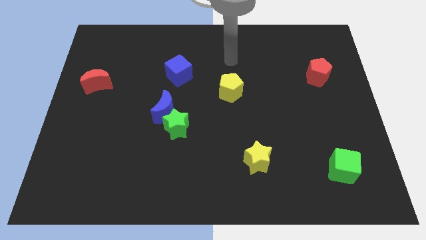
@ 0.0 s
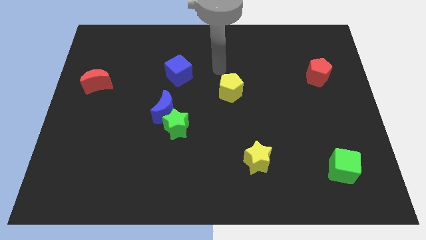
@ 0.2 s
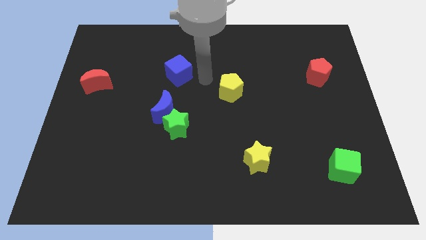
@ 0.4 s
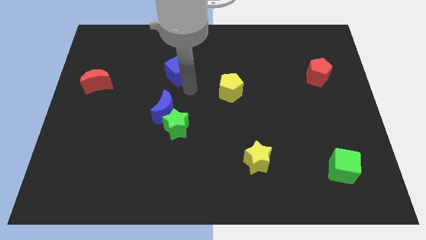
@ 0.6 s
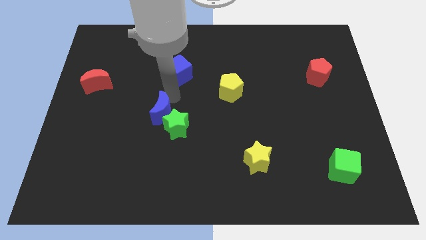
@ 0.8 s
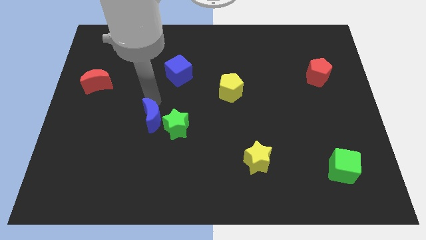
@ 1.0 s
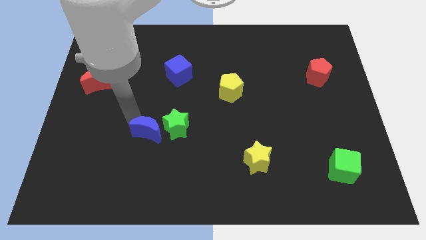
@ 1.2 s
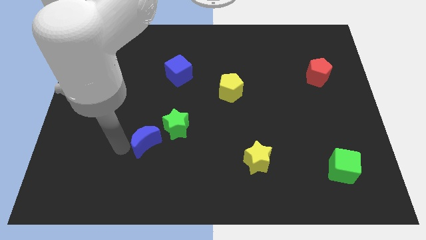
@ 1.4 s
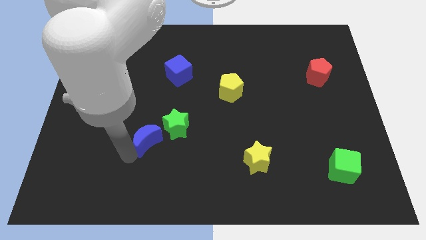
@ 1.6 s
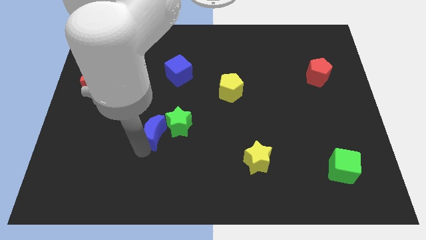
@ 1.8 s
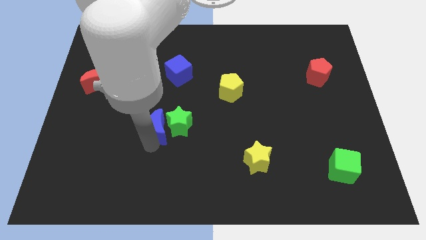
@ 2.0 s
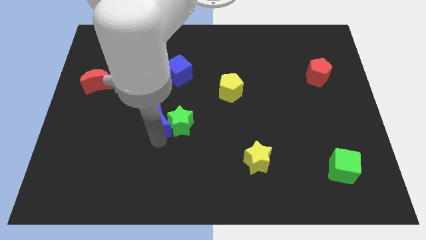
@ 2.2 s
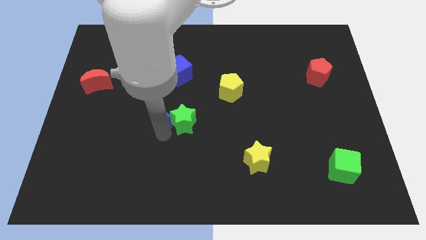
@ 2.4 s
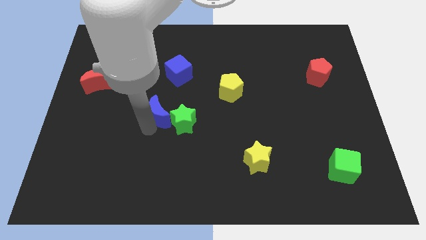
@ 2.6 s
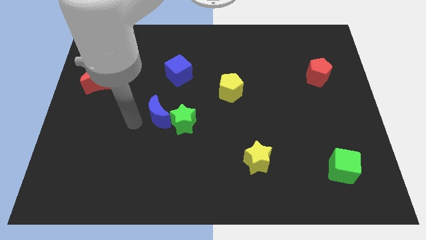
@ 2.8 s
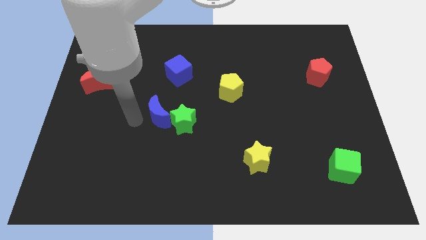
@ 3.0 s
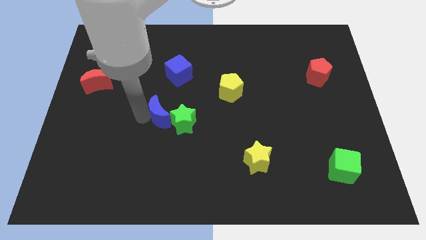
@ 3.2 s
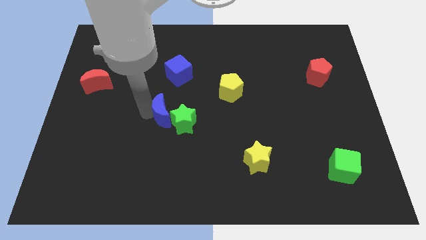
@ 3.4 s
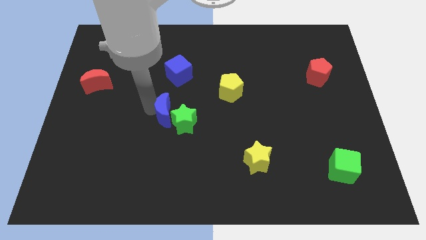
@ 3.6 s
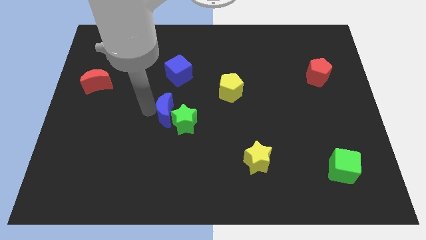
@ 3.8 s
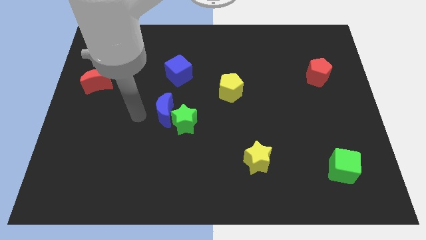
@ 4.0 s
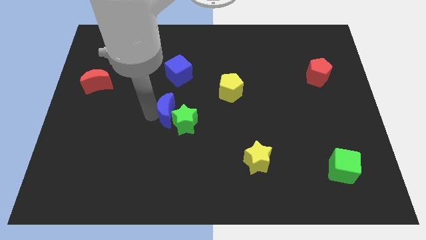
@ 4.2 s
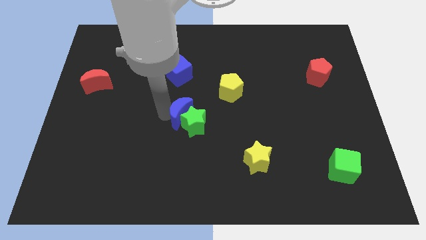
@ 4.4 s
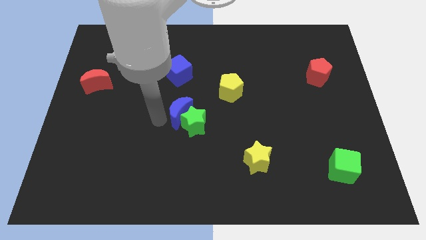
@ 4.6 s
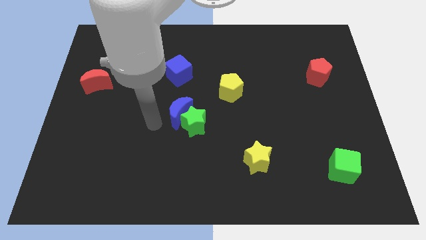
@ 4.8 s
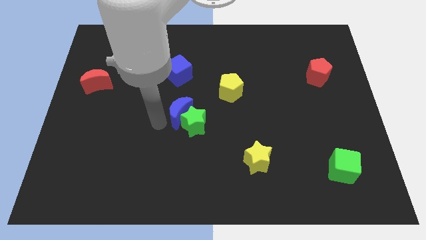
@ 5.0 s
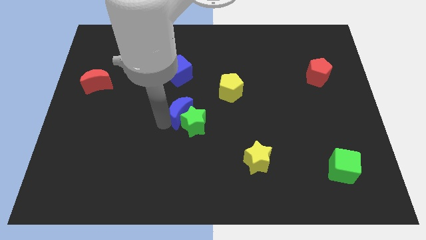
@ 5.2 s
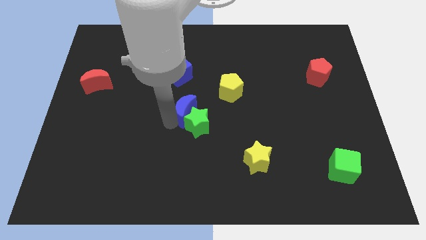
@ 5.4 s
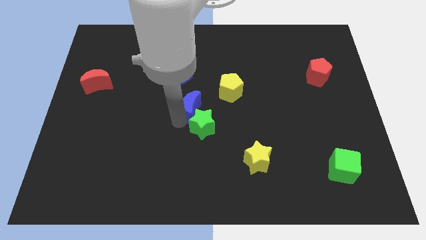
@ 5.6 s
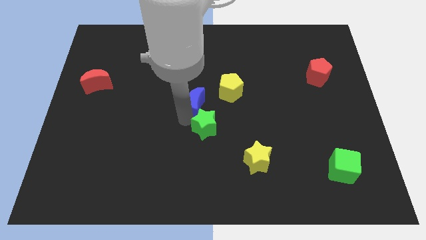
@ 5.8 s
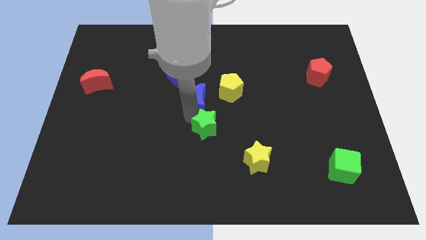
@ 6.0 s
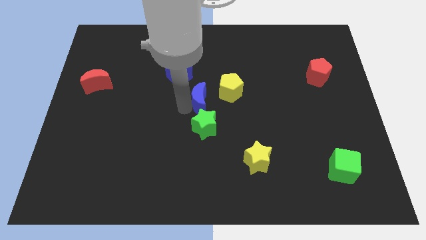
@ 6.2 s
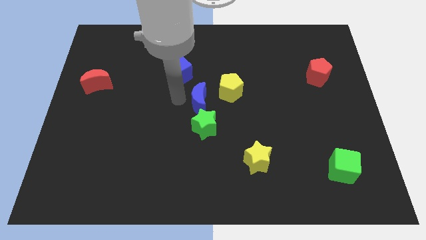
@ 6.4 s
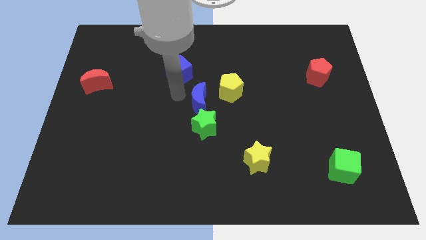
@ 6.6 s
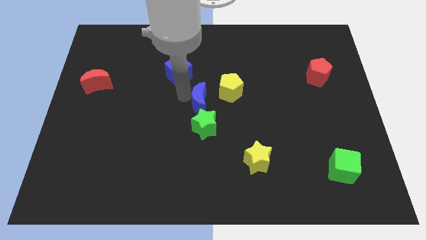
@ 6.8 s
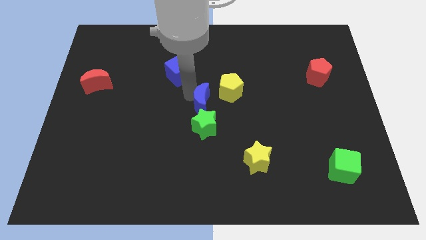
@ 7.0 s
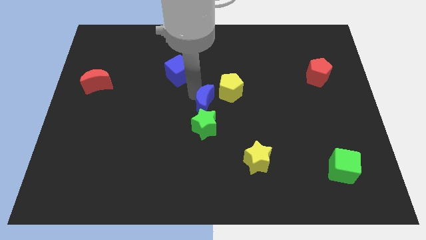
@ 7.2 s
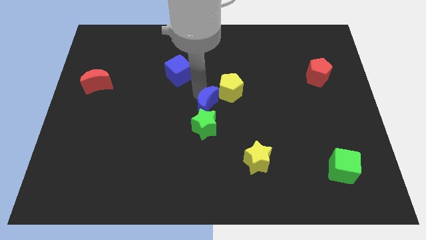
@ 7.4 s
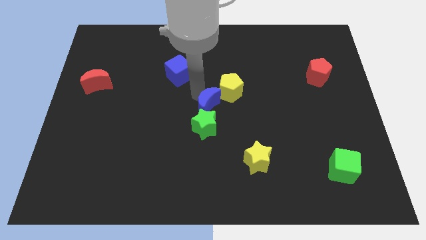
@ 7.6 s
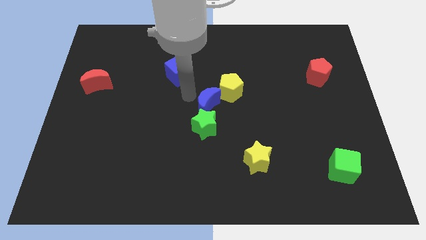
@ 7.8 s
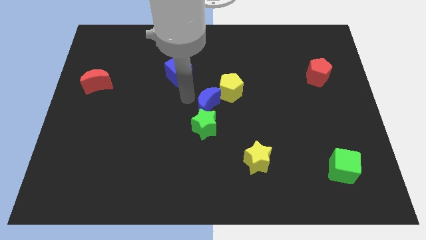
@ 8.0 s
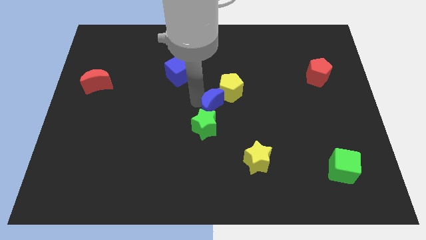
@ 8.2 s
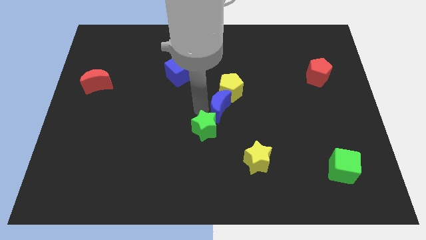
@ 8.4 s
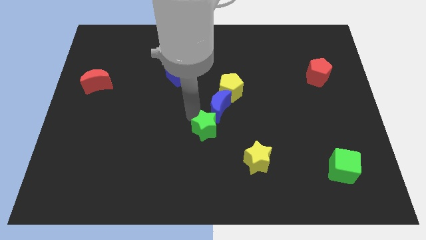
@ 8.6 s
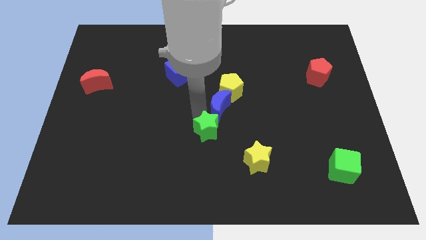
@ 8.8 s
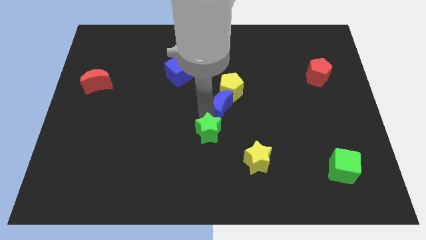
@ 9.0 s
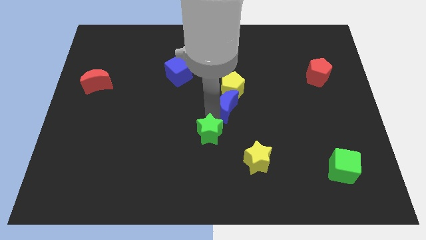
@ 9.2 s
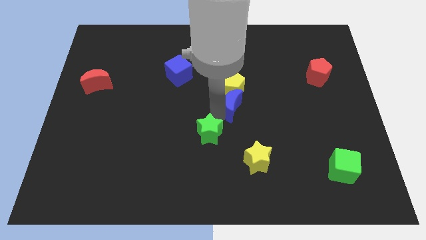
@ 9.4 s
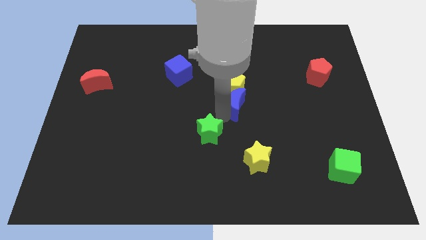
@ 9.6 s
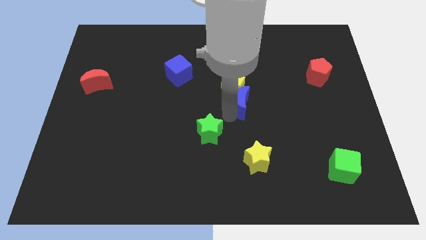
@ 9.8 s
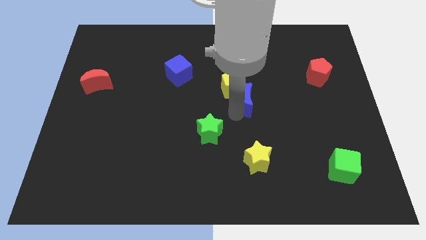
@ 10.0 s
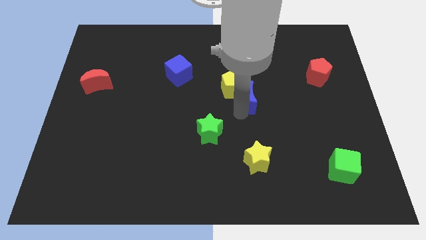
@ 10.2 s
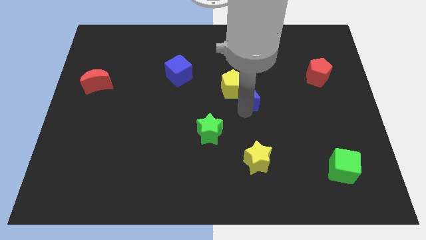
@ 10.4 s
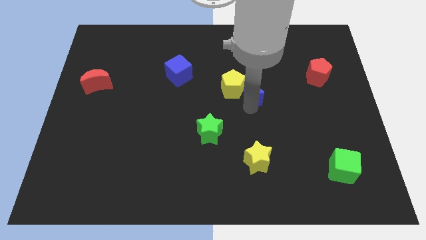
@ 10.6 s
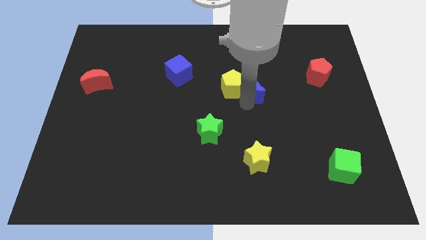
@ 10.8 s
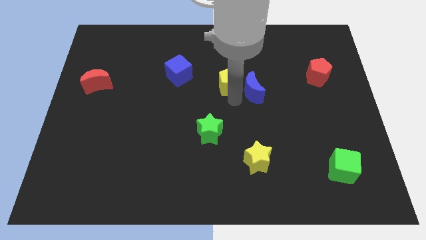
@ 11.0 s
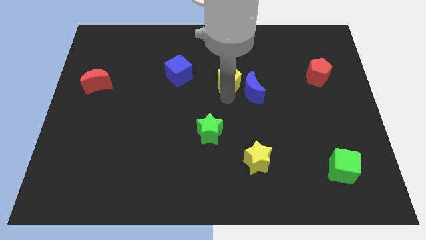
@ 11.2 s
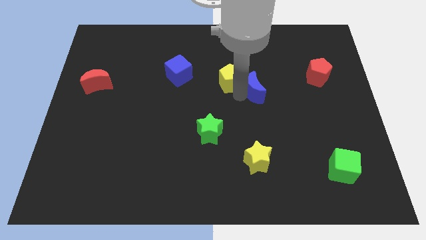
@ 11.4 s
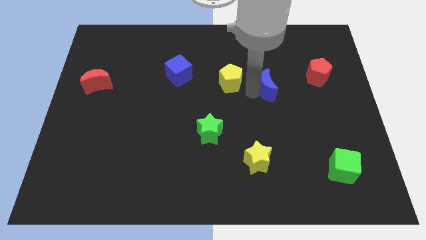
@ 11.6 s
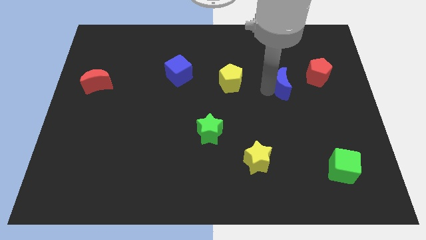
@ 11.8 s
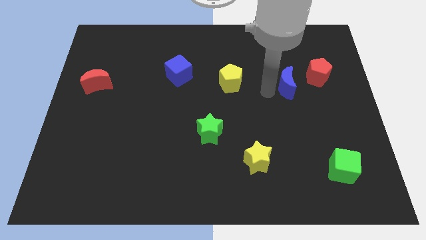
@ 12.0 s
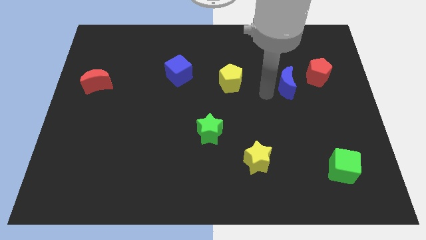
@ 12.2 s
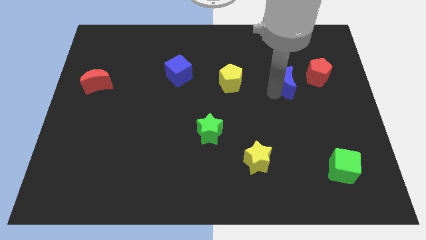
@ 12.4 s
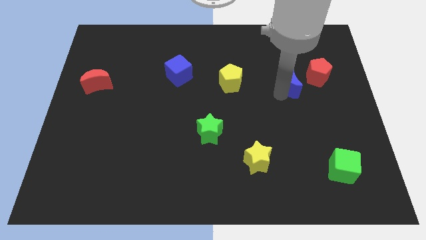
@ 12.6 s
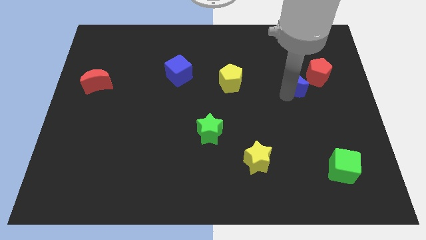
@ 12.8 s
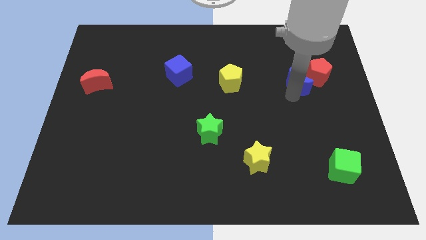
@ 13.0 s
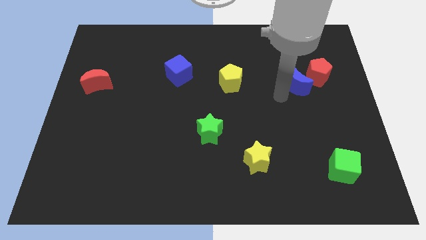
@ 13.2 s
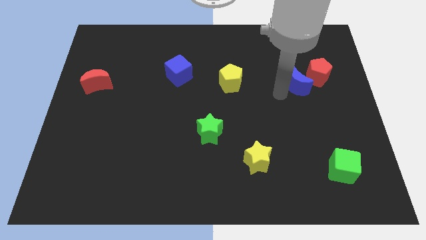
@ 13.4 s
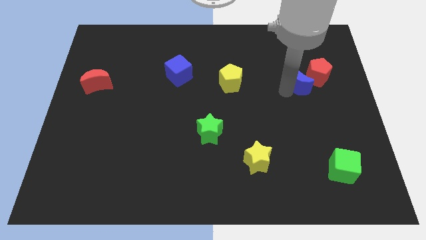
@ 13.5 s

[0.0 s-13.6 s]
put the blue moon close to the red pentagon

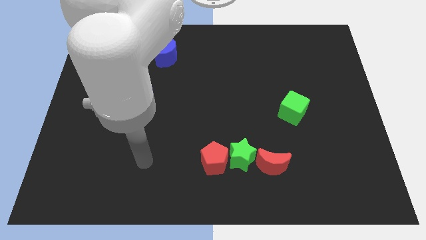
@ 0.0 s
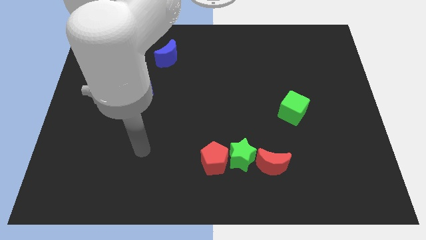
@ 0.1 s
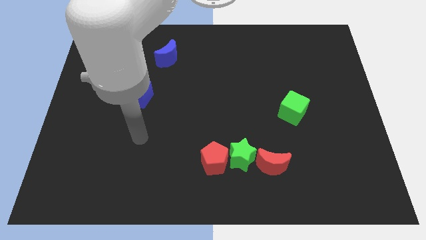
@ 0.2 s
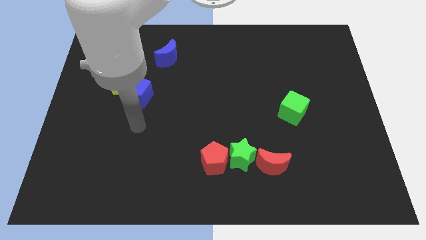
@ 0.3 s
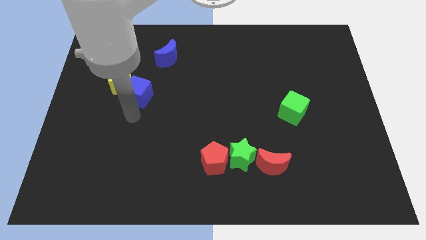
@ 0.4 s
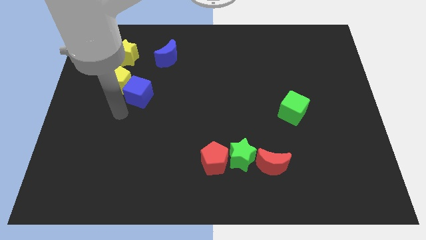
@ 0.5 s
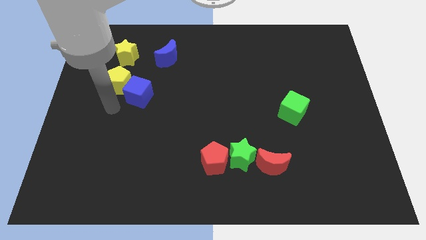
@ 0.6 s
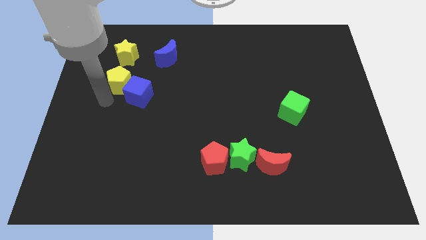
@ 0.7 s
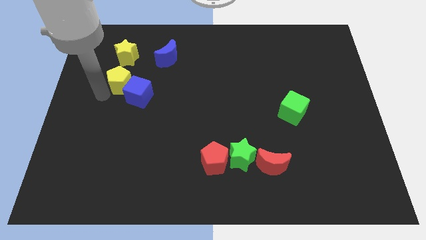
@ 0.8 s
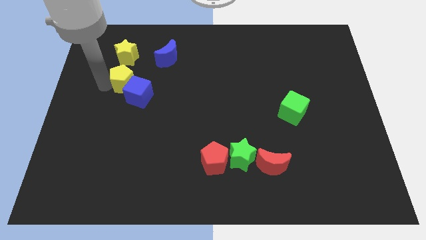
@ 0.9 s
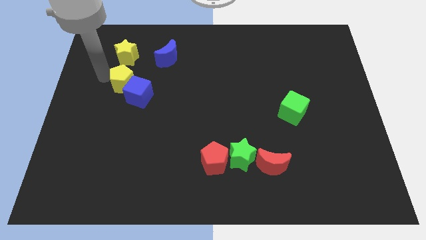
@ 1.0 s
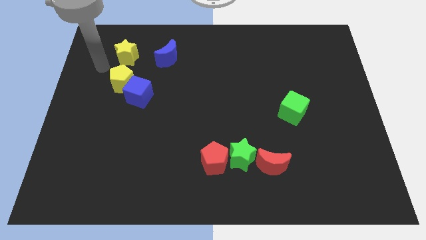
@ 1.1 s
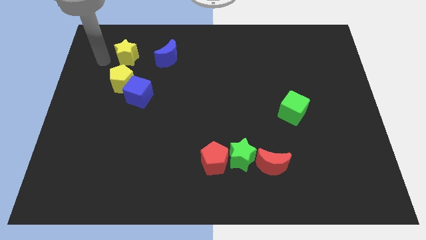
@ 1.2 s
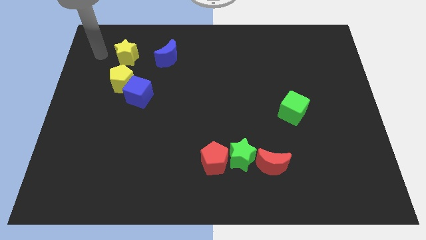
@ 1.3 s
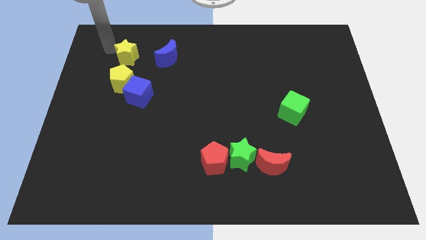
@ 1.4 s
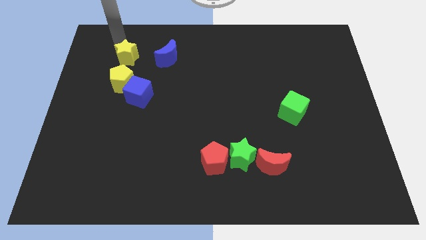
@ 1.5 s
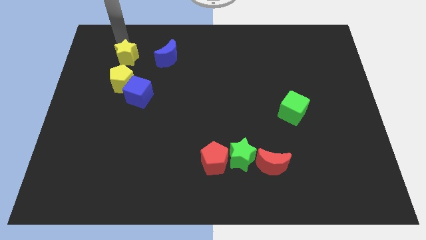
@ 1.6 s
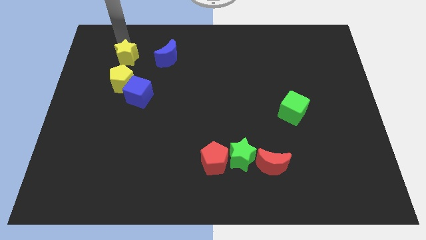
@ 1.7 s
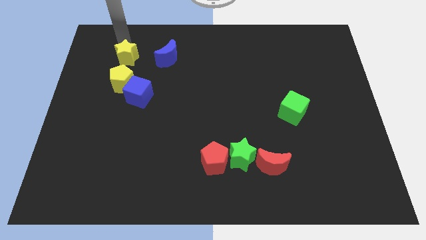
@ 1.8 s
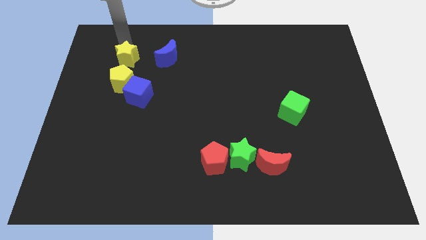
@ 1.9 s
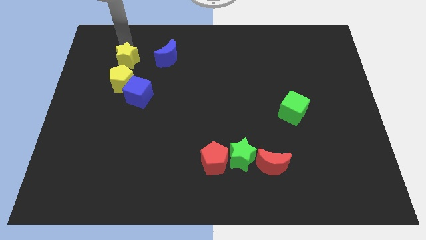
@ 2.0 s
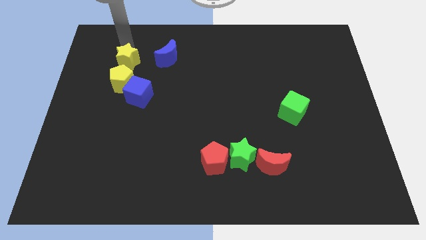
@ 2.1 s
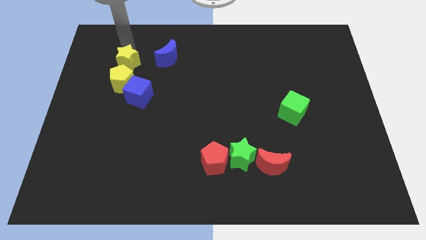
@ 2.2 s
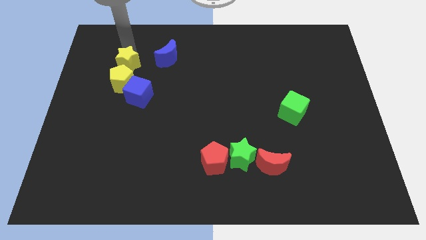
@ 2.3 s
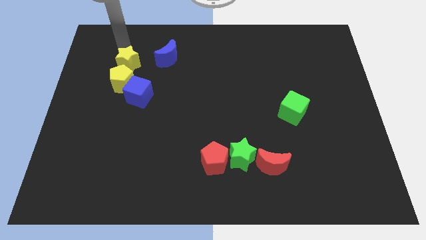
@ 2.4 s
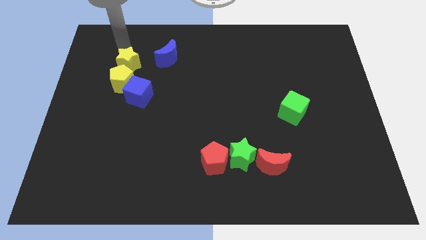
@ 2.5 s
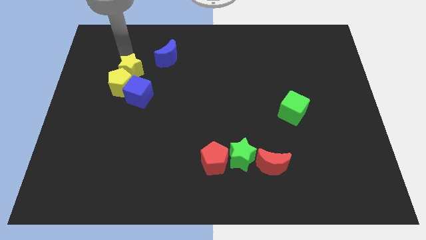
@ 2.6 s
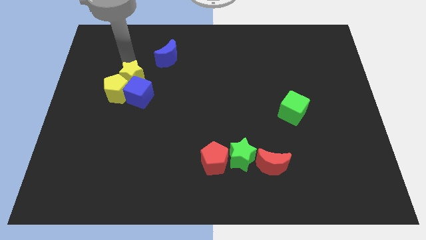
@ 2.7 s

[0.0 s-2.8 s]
slide the yellow star close to the blue cube
